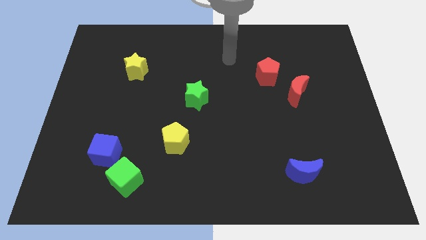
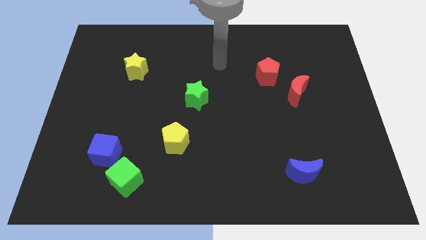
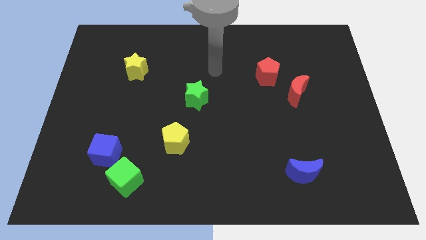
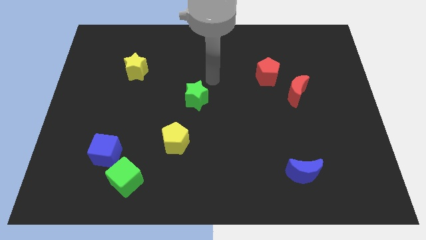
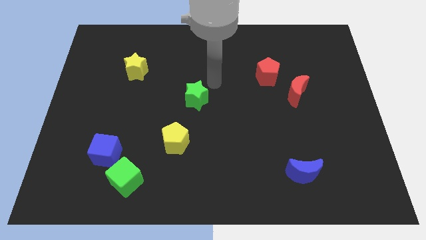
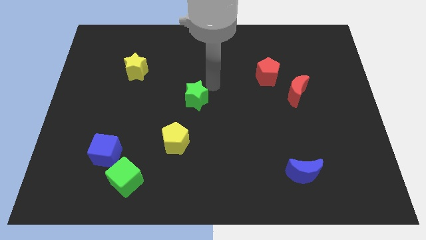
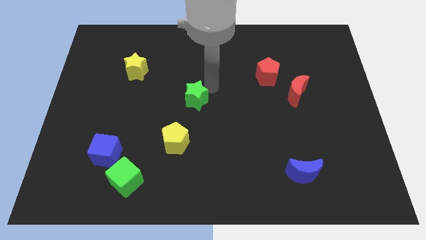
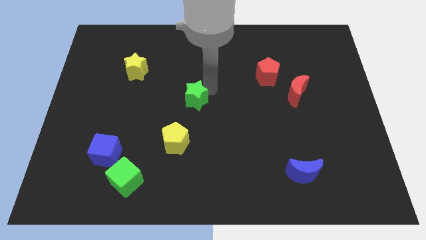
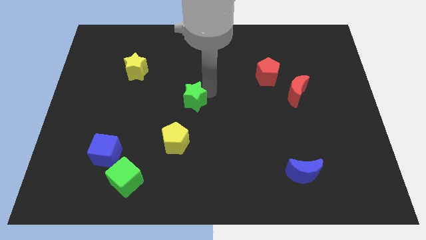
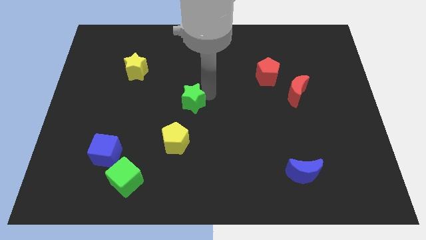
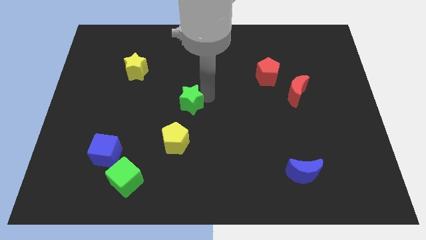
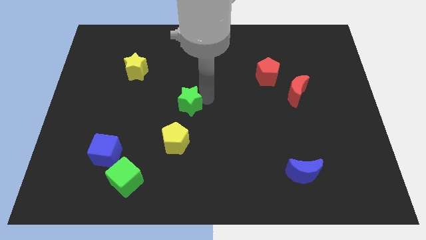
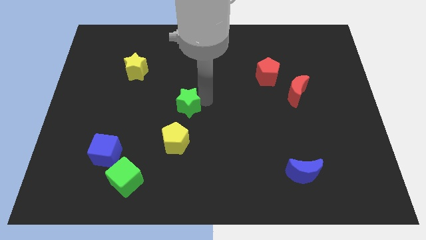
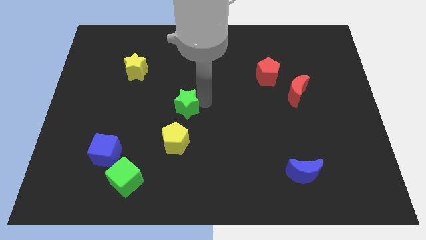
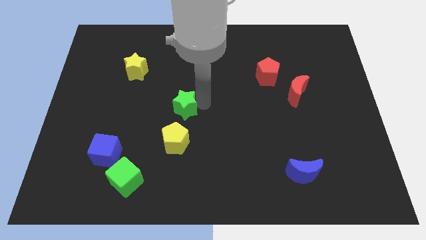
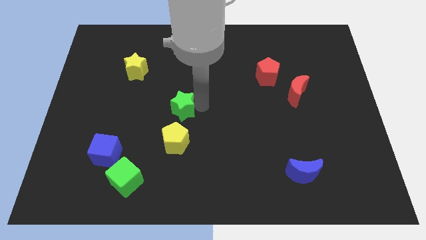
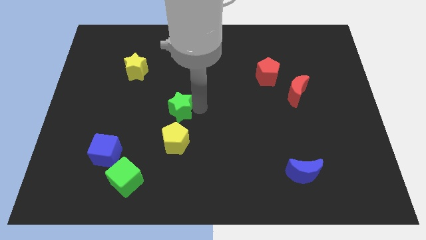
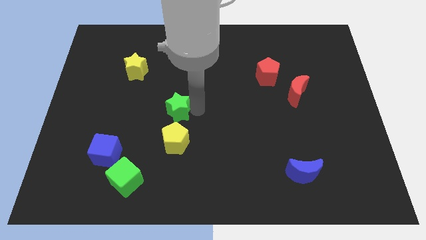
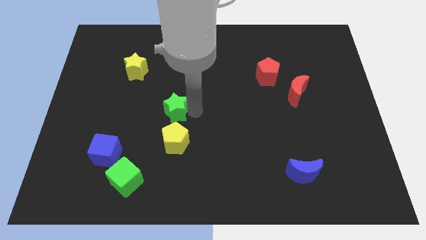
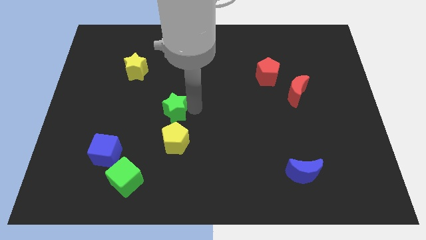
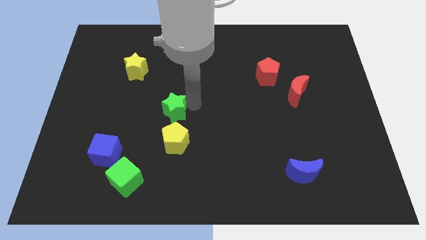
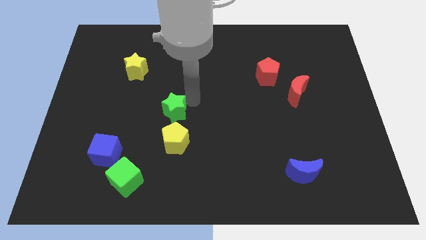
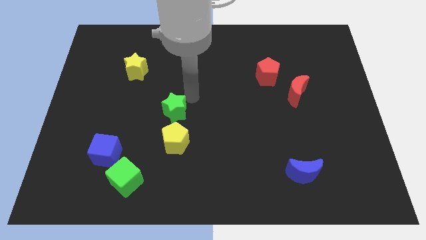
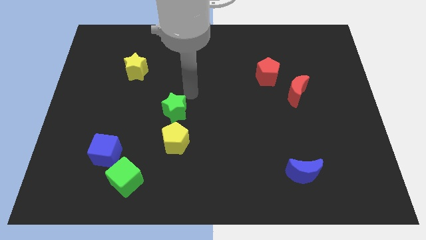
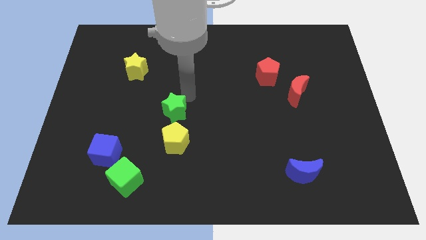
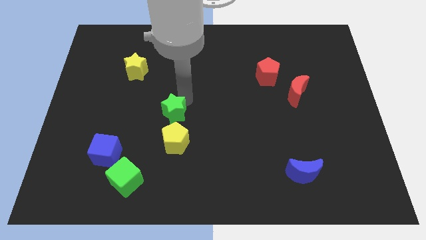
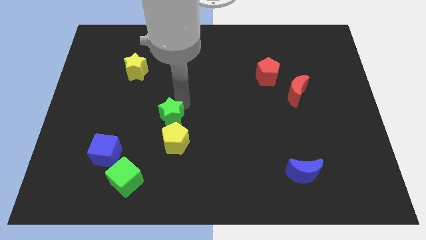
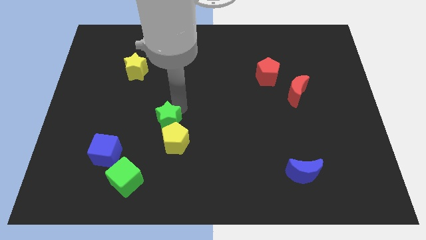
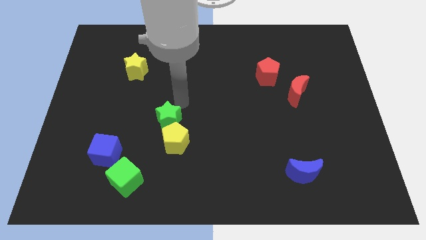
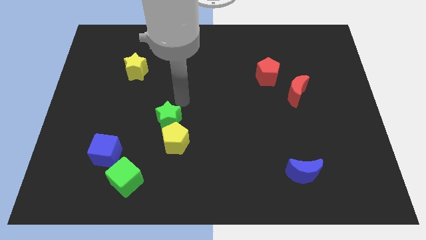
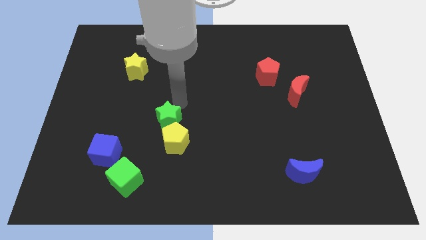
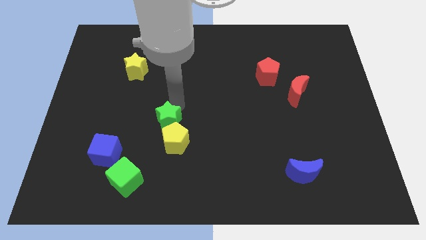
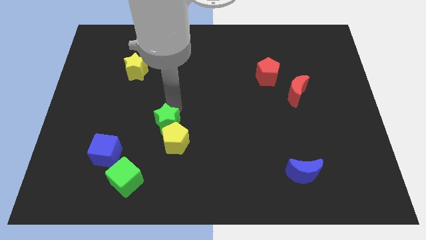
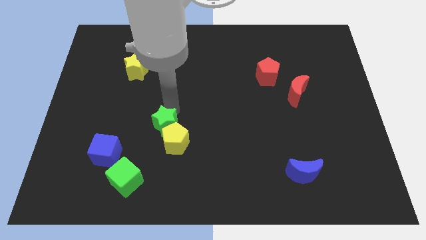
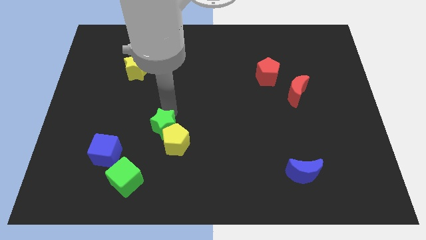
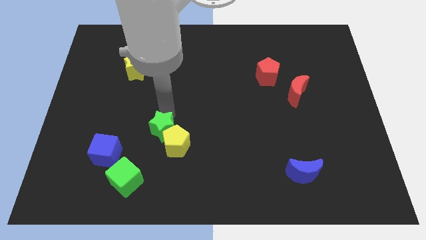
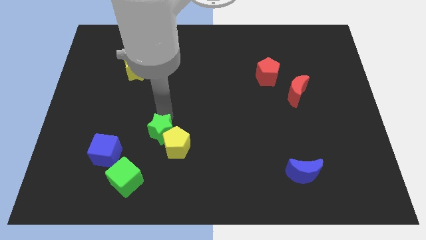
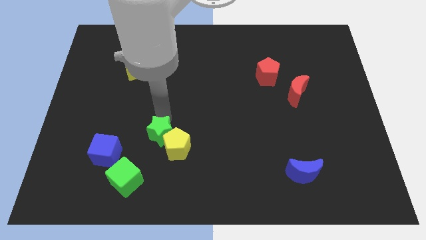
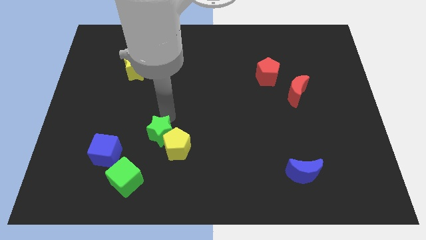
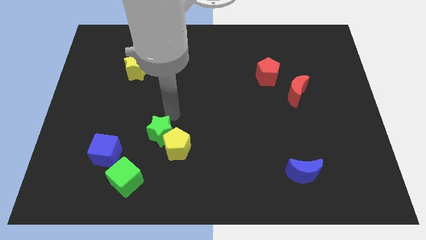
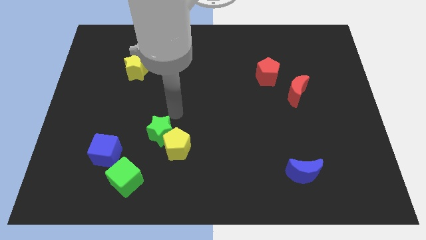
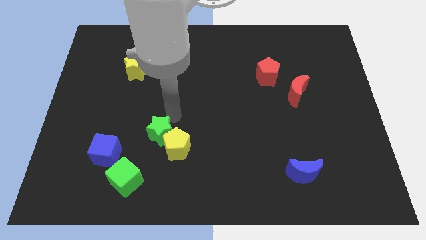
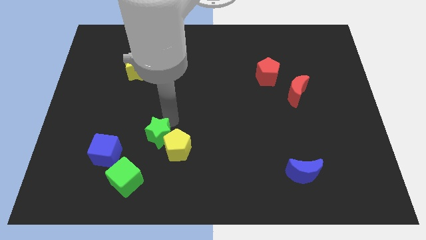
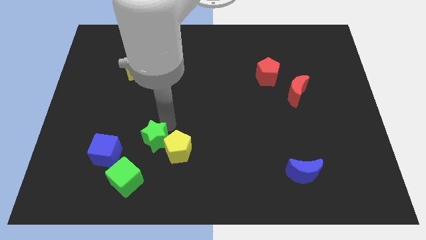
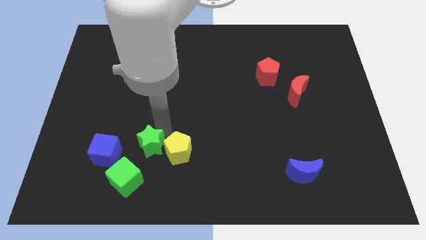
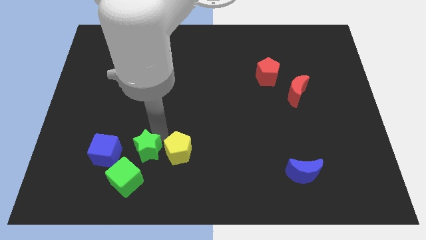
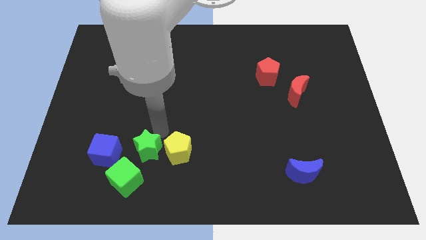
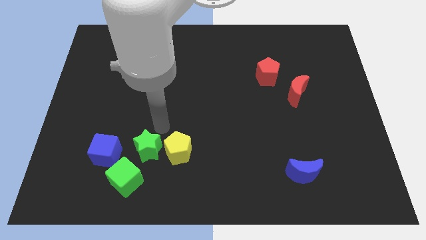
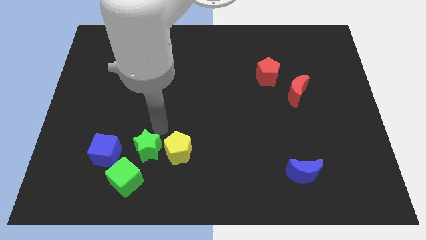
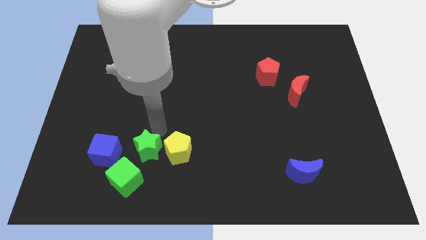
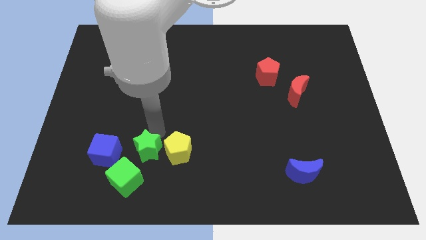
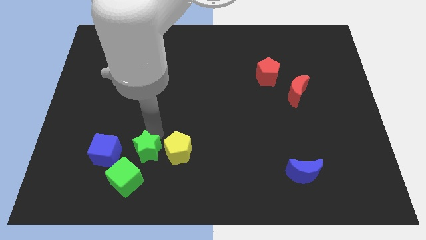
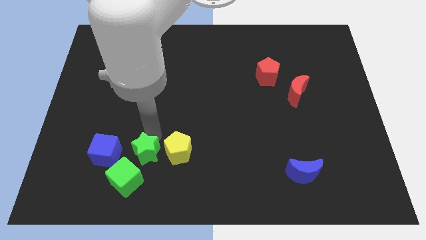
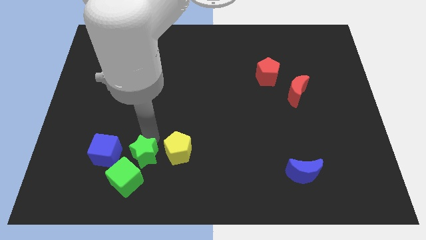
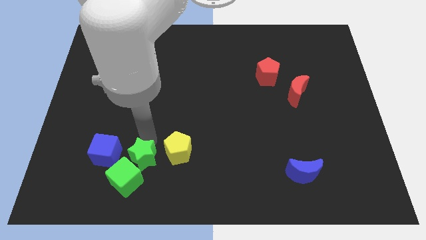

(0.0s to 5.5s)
move the green star to the green cube
